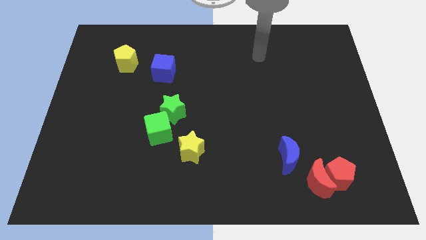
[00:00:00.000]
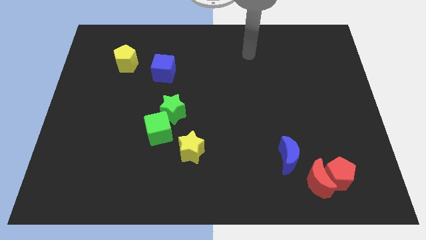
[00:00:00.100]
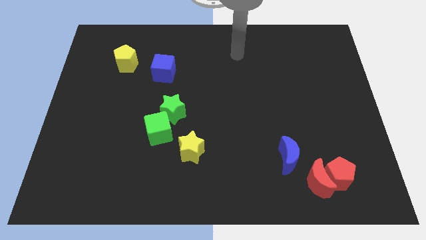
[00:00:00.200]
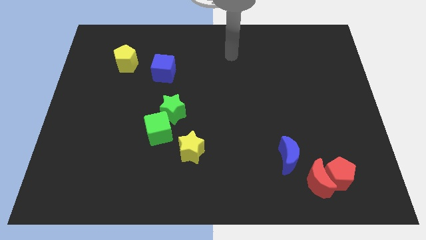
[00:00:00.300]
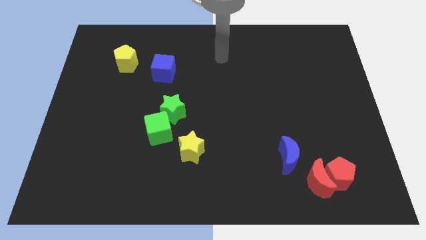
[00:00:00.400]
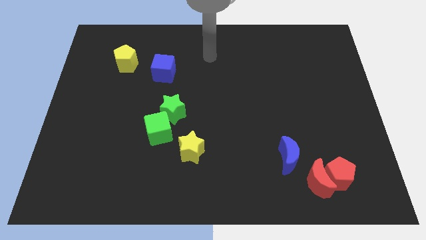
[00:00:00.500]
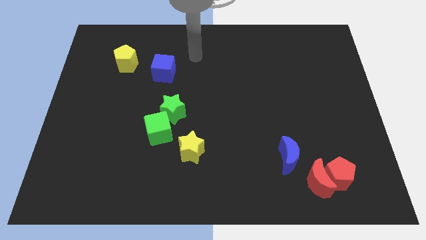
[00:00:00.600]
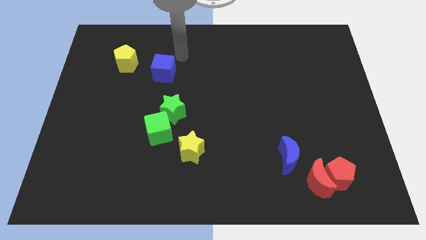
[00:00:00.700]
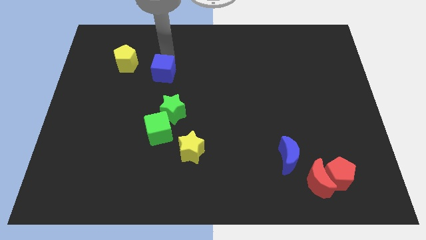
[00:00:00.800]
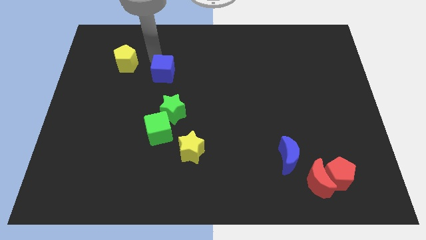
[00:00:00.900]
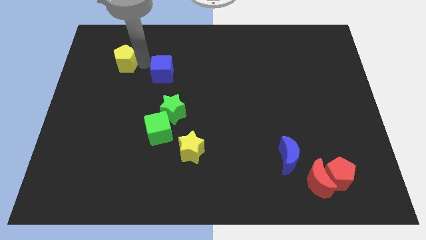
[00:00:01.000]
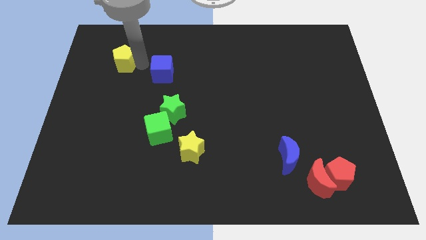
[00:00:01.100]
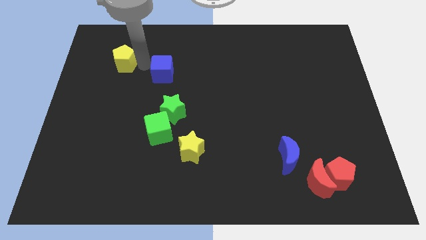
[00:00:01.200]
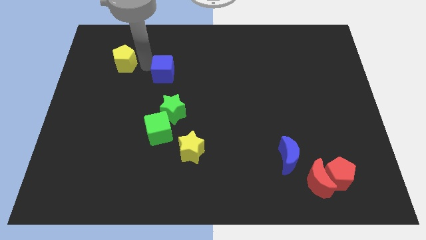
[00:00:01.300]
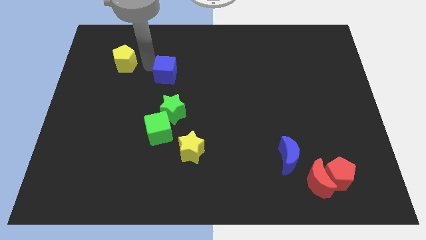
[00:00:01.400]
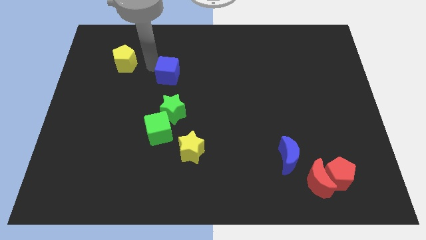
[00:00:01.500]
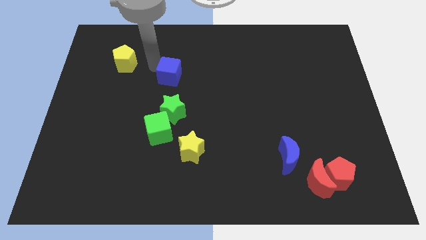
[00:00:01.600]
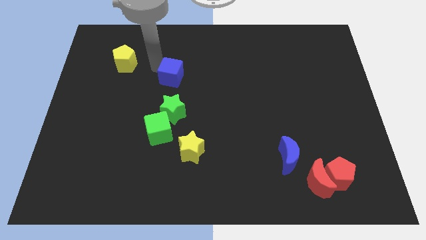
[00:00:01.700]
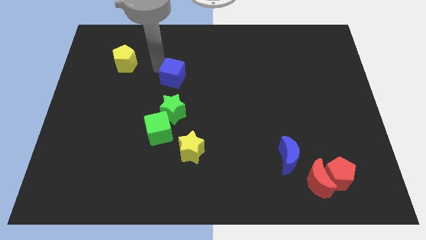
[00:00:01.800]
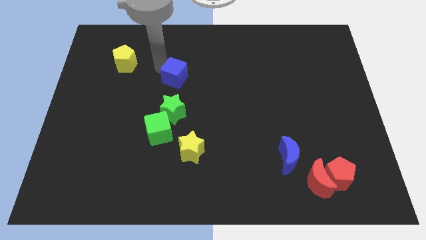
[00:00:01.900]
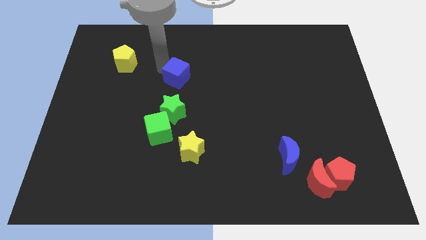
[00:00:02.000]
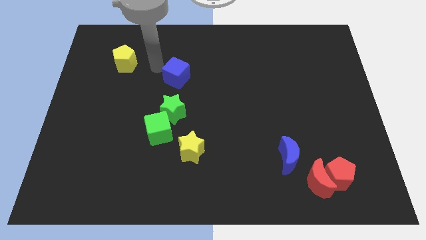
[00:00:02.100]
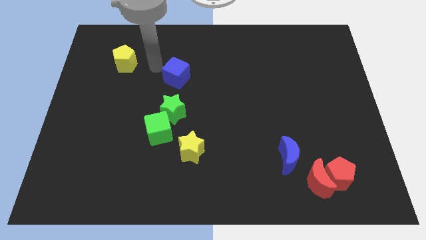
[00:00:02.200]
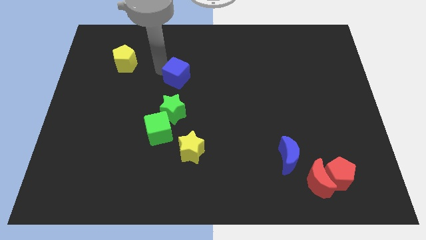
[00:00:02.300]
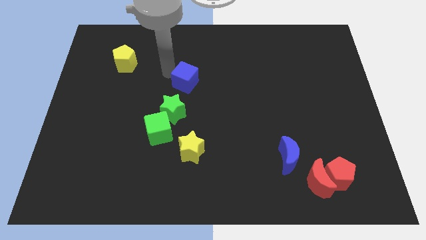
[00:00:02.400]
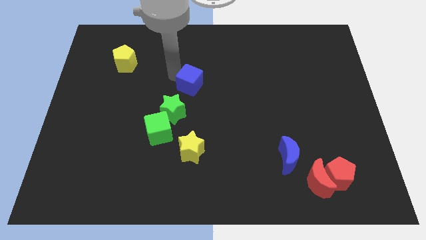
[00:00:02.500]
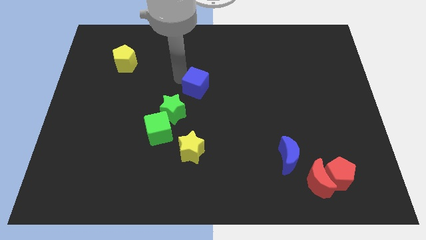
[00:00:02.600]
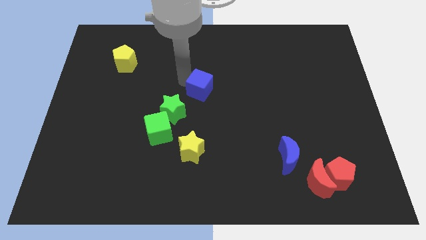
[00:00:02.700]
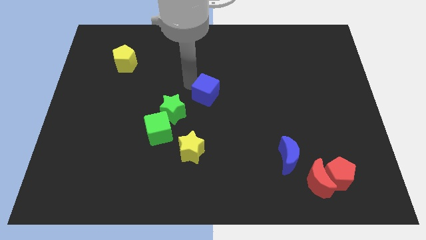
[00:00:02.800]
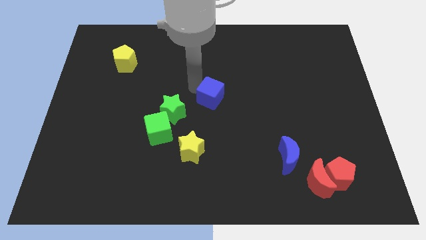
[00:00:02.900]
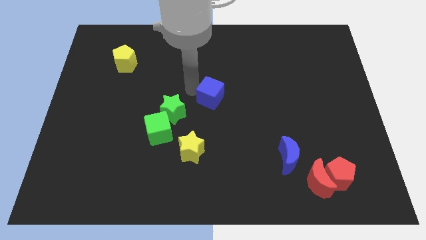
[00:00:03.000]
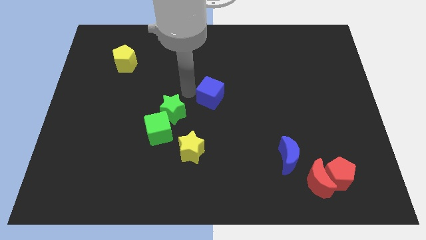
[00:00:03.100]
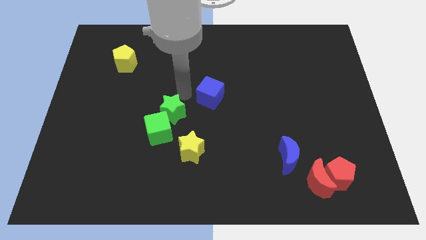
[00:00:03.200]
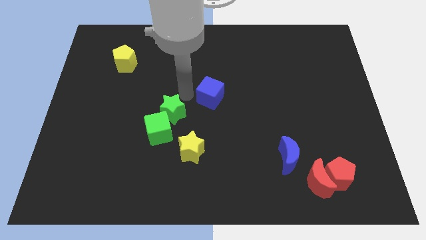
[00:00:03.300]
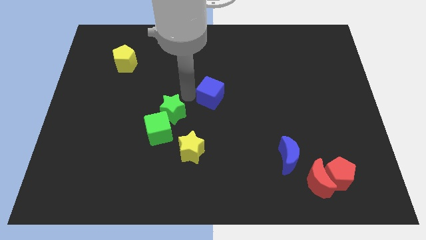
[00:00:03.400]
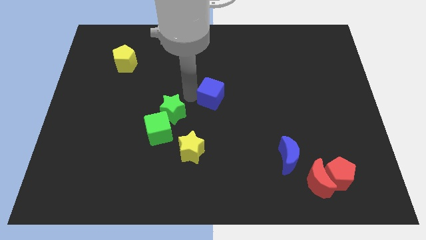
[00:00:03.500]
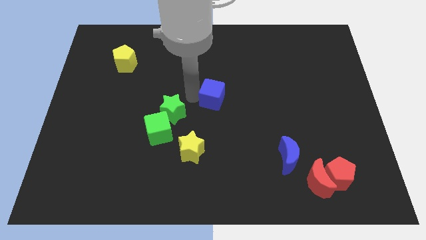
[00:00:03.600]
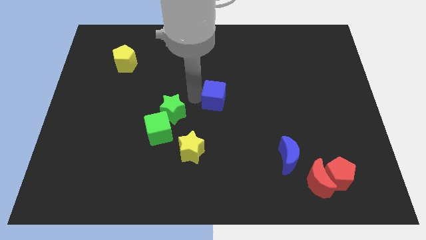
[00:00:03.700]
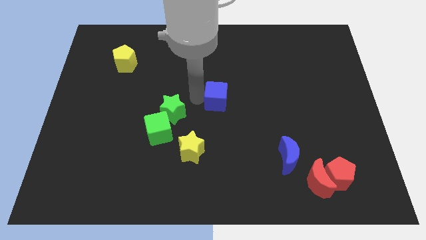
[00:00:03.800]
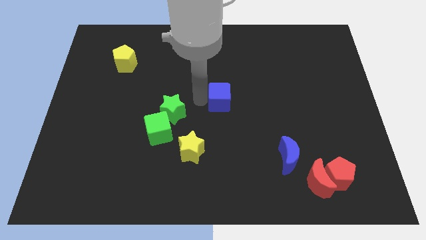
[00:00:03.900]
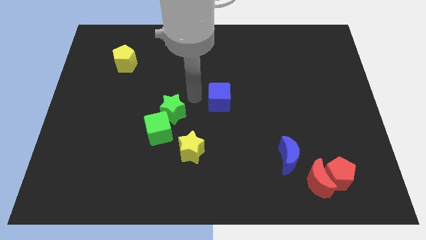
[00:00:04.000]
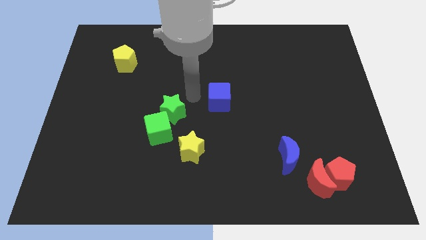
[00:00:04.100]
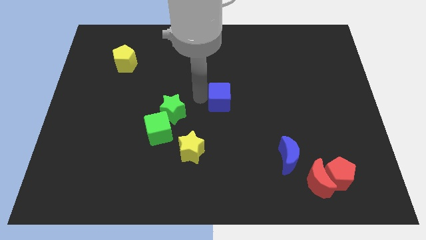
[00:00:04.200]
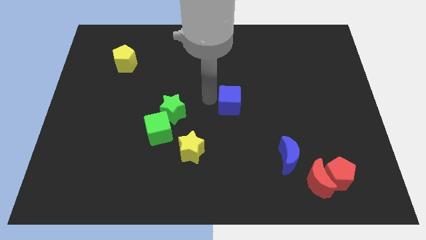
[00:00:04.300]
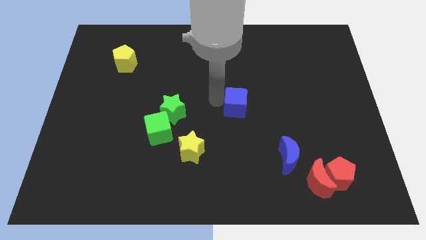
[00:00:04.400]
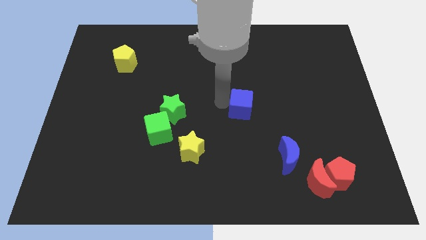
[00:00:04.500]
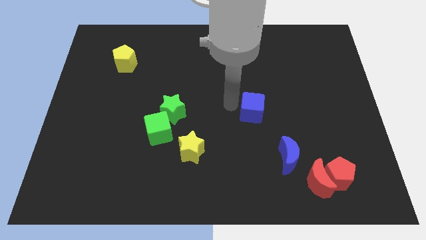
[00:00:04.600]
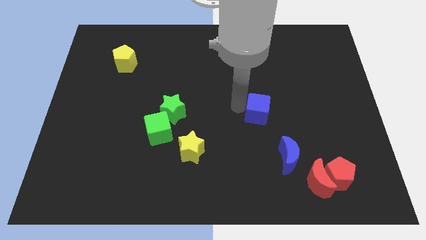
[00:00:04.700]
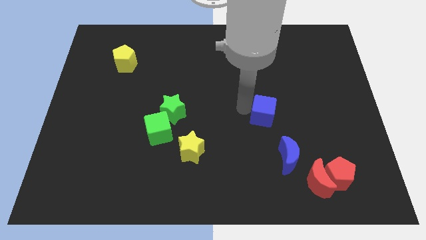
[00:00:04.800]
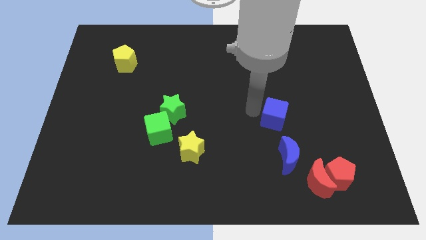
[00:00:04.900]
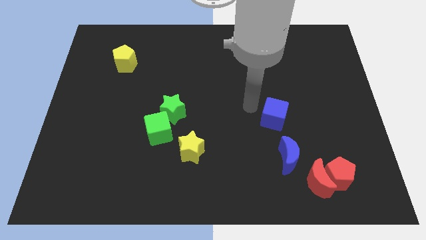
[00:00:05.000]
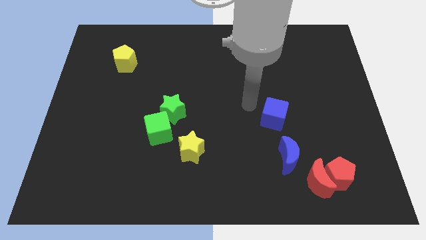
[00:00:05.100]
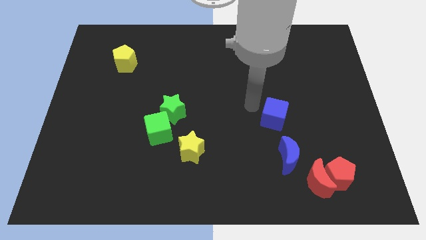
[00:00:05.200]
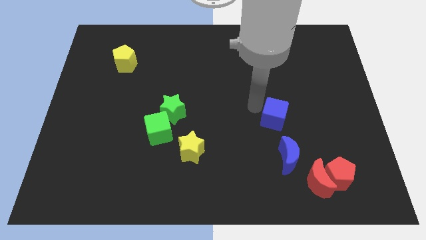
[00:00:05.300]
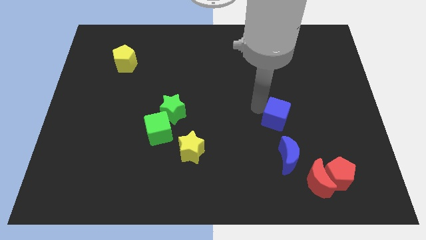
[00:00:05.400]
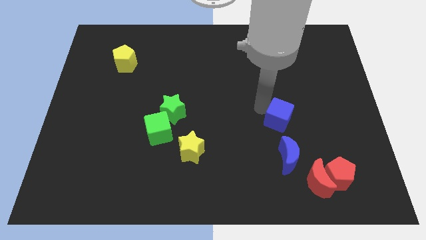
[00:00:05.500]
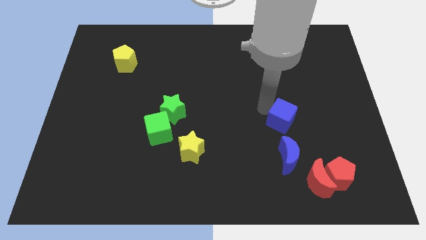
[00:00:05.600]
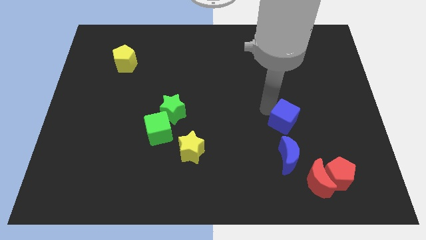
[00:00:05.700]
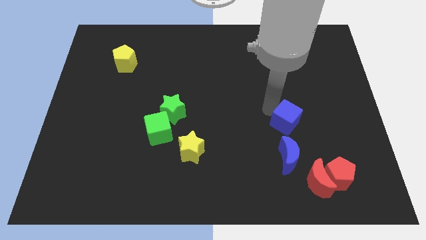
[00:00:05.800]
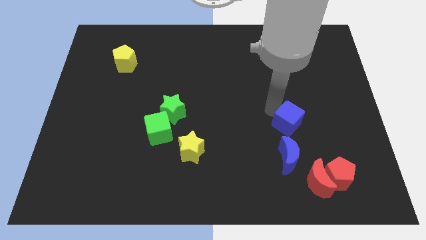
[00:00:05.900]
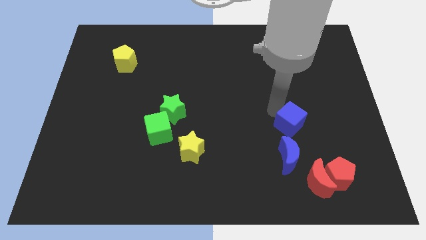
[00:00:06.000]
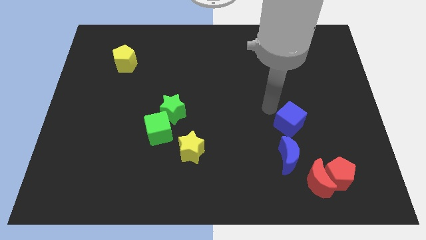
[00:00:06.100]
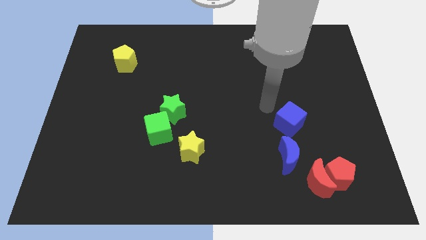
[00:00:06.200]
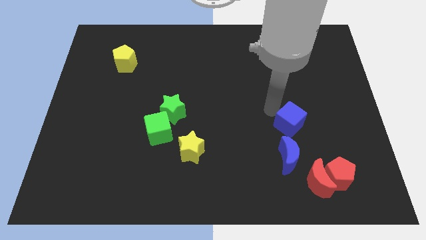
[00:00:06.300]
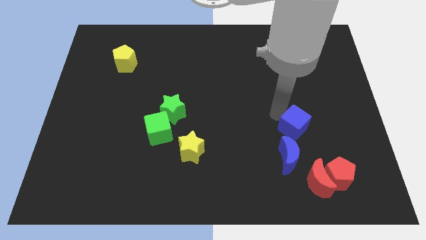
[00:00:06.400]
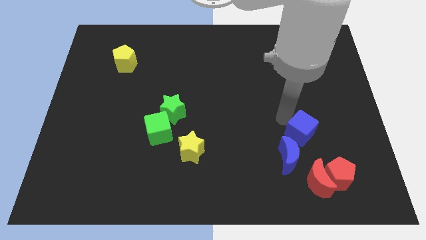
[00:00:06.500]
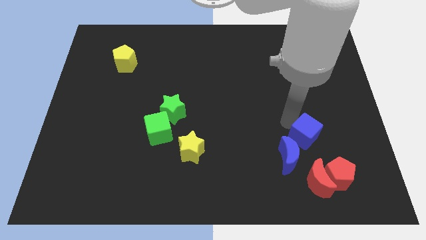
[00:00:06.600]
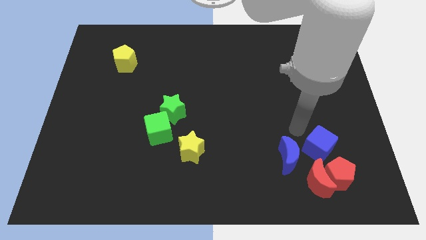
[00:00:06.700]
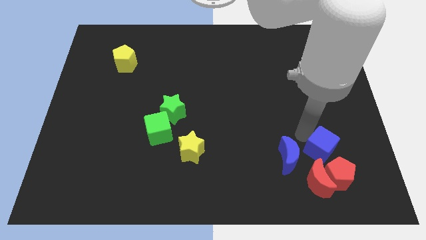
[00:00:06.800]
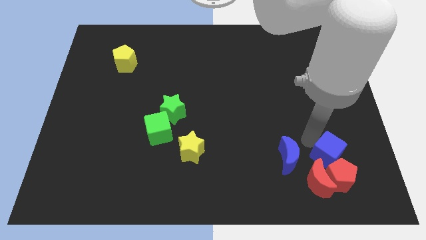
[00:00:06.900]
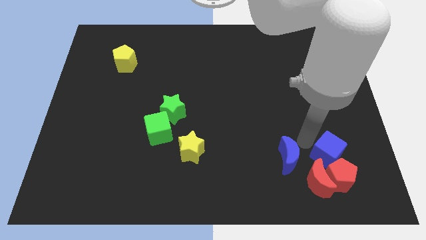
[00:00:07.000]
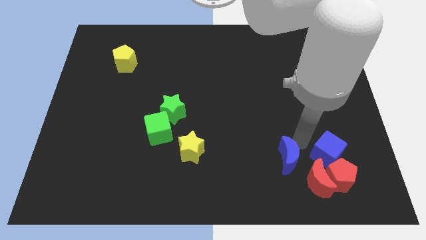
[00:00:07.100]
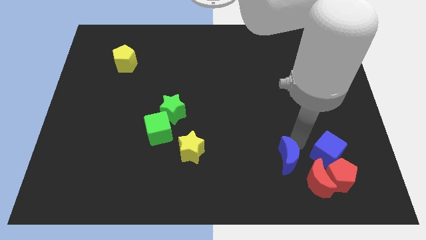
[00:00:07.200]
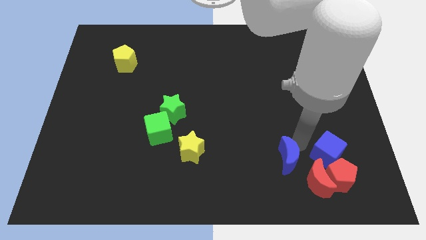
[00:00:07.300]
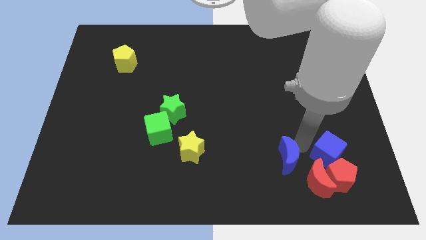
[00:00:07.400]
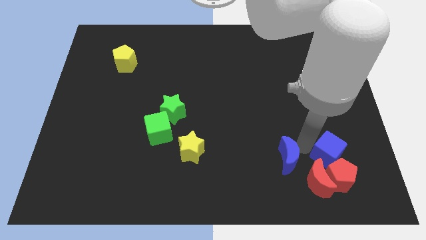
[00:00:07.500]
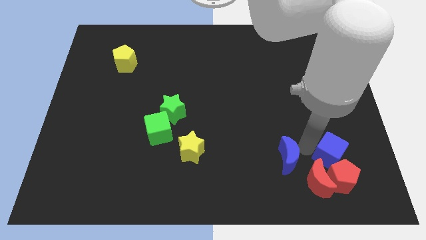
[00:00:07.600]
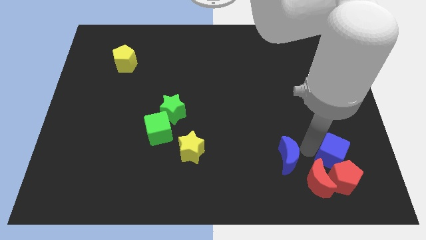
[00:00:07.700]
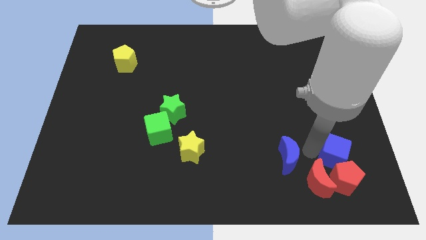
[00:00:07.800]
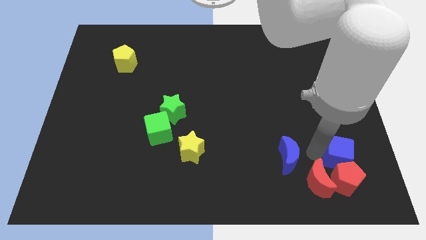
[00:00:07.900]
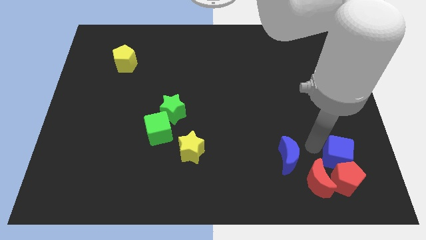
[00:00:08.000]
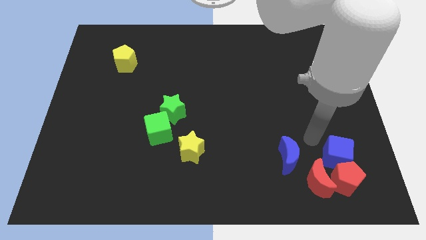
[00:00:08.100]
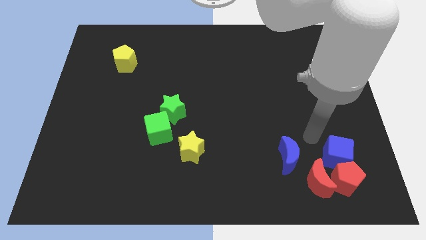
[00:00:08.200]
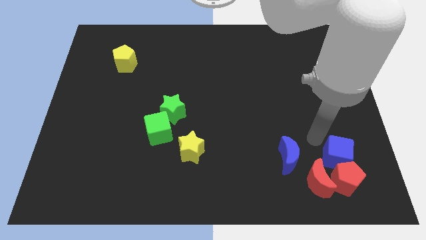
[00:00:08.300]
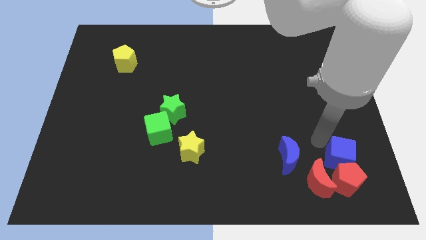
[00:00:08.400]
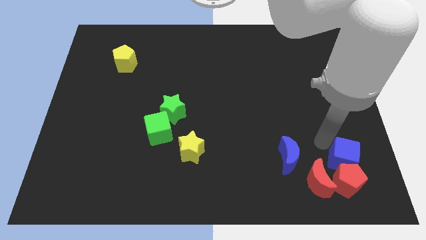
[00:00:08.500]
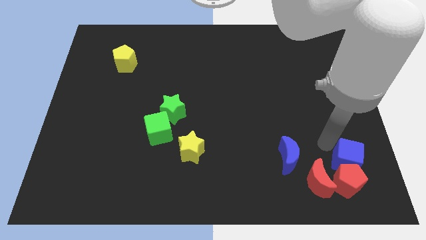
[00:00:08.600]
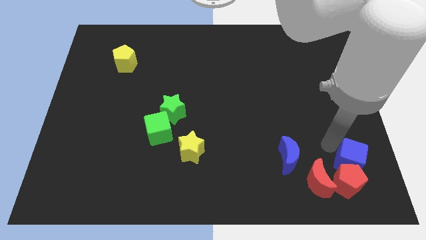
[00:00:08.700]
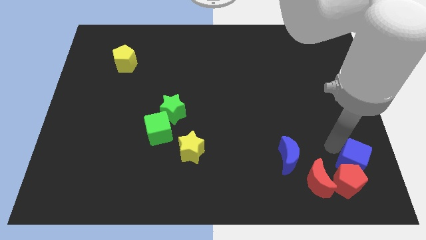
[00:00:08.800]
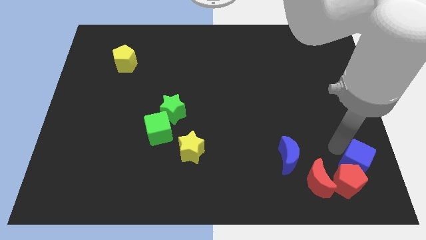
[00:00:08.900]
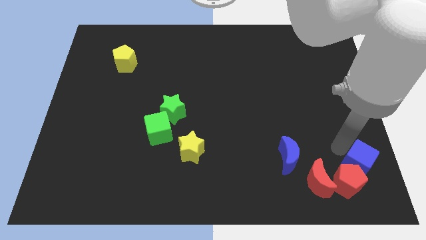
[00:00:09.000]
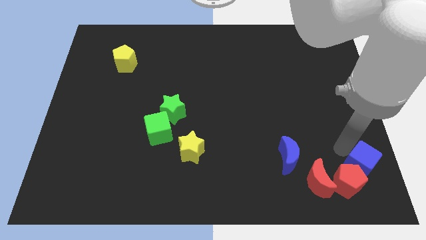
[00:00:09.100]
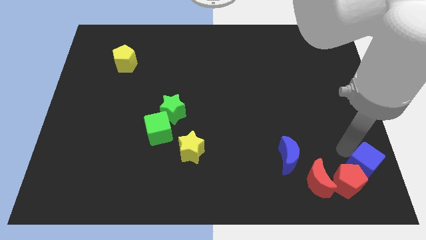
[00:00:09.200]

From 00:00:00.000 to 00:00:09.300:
put the blue cube to the lower right corner
